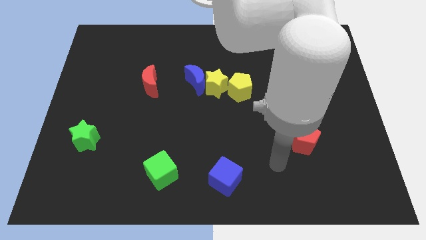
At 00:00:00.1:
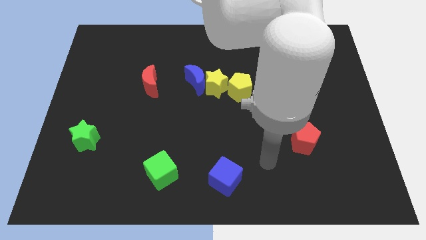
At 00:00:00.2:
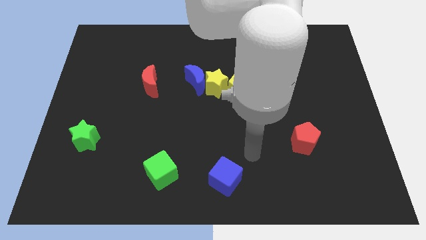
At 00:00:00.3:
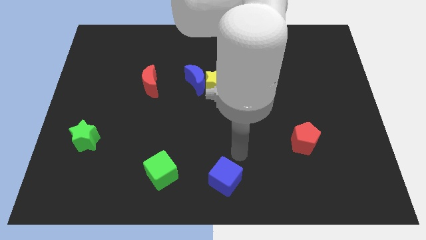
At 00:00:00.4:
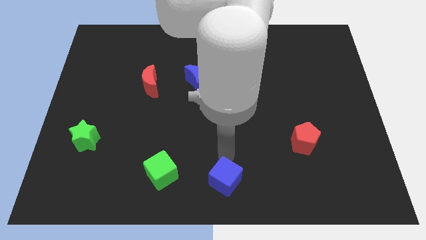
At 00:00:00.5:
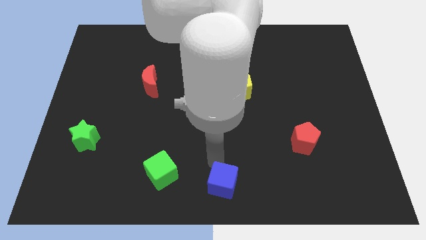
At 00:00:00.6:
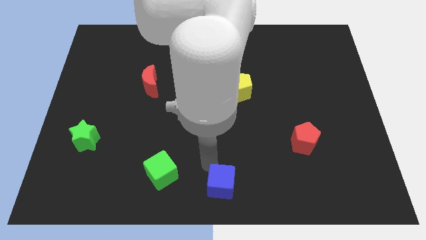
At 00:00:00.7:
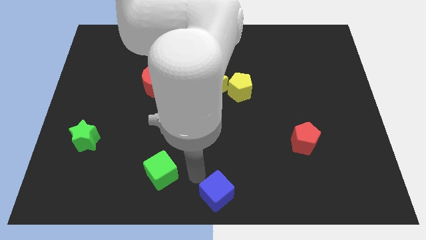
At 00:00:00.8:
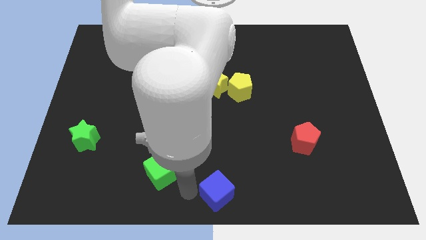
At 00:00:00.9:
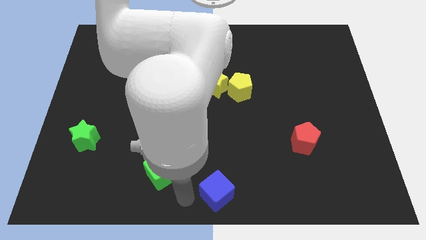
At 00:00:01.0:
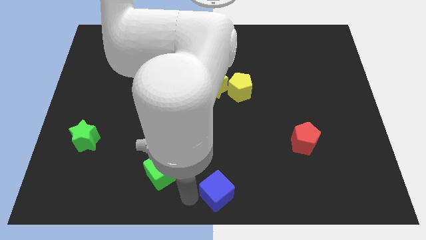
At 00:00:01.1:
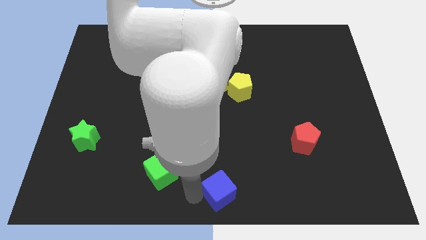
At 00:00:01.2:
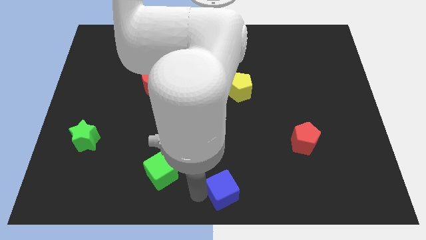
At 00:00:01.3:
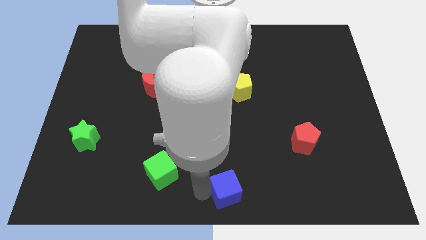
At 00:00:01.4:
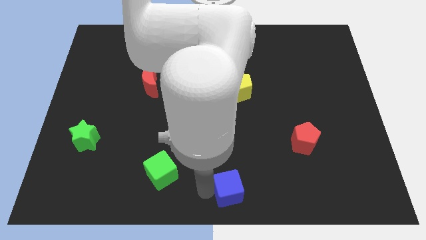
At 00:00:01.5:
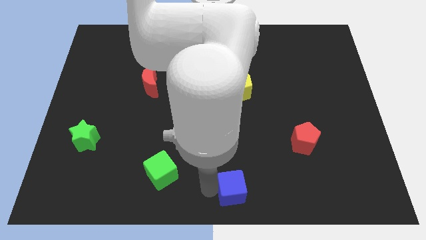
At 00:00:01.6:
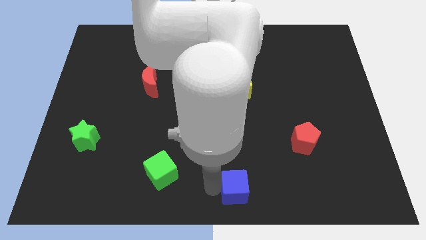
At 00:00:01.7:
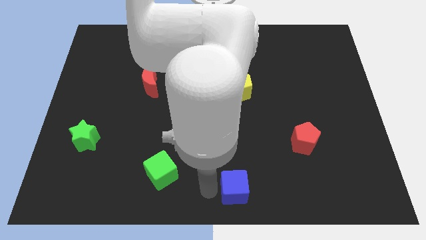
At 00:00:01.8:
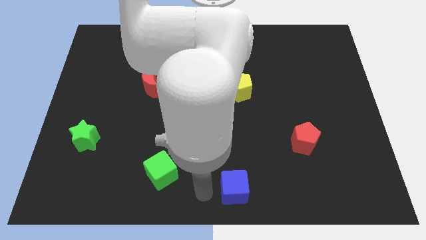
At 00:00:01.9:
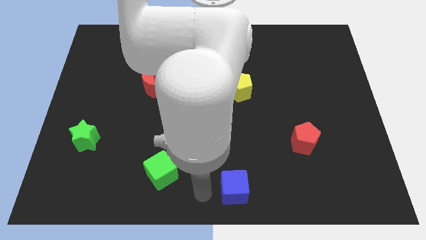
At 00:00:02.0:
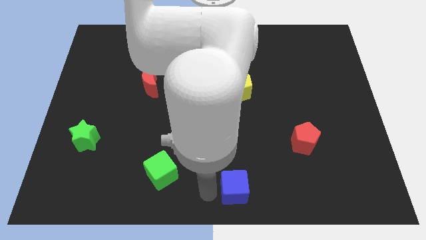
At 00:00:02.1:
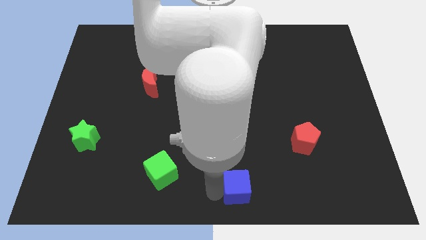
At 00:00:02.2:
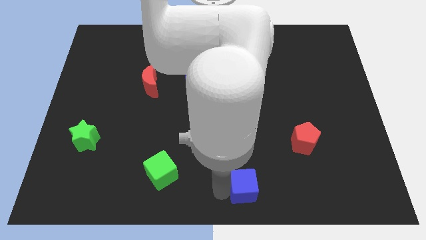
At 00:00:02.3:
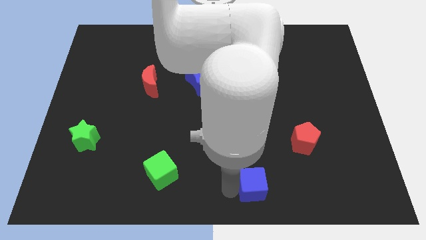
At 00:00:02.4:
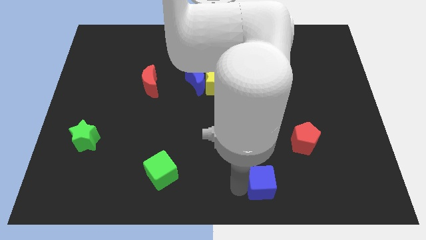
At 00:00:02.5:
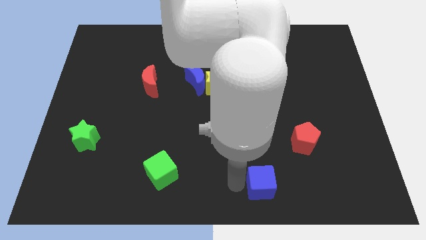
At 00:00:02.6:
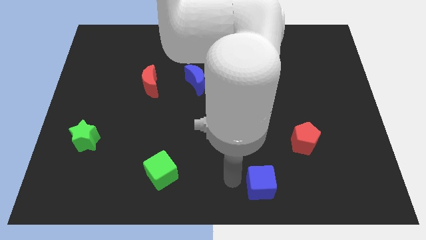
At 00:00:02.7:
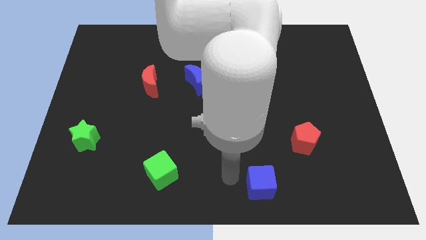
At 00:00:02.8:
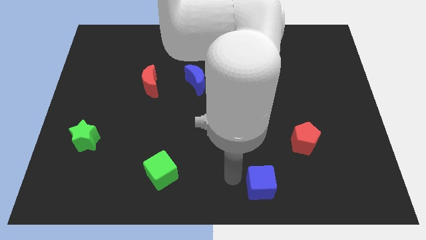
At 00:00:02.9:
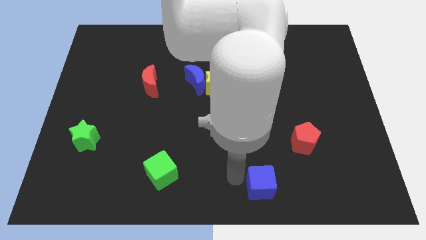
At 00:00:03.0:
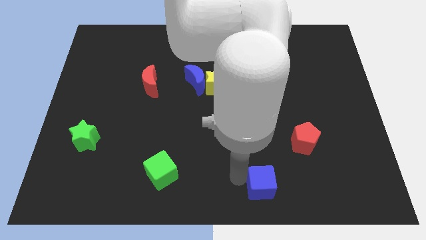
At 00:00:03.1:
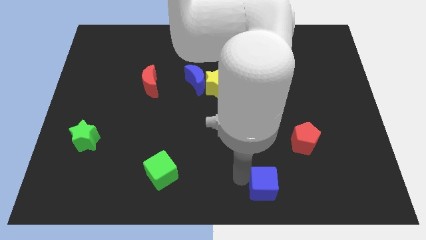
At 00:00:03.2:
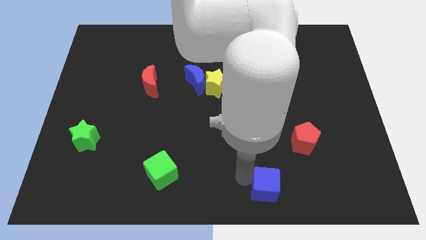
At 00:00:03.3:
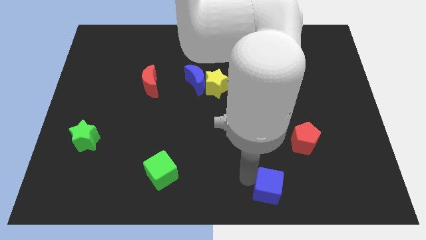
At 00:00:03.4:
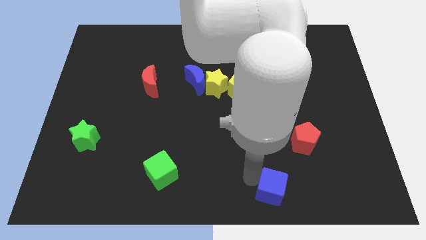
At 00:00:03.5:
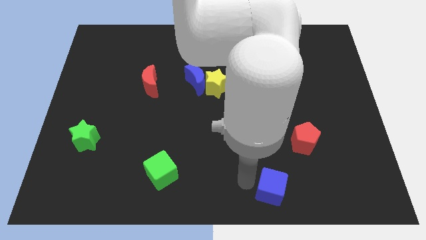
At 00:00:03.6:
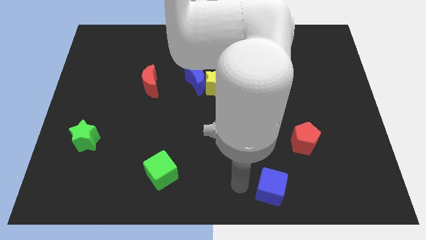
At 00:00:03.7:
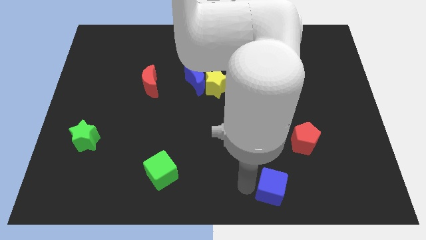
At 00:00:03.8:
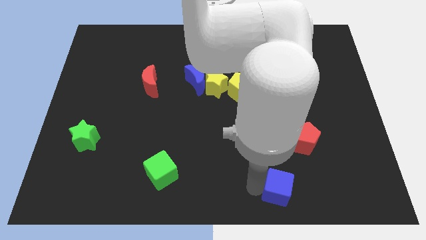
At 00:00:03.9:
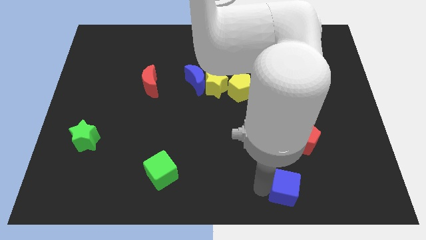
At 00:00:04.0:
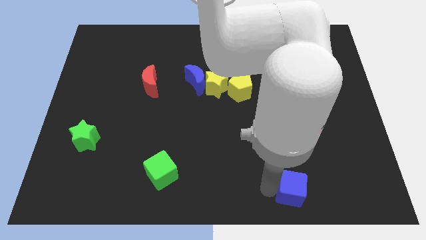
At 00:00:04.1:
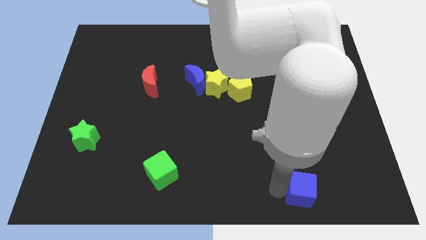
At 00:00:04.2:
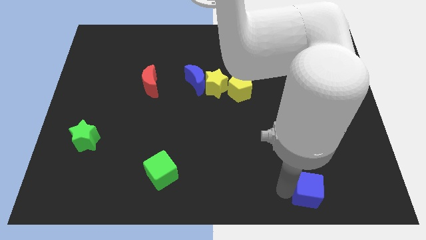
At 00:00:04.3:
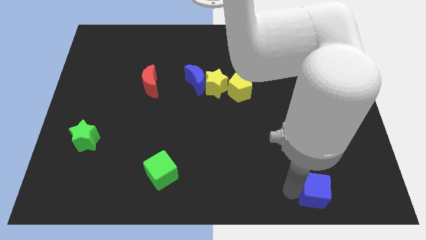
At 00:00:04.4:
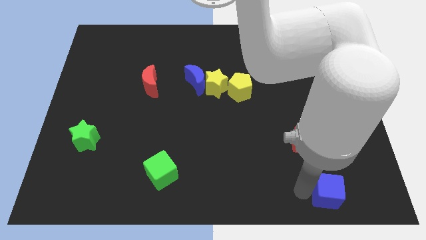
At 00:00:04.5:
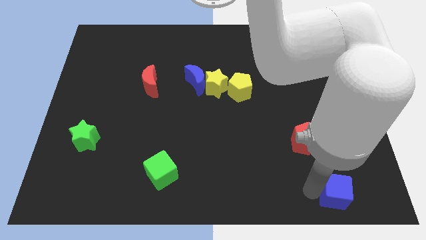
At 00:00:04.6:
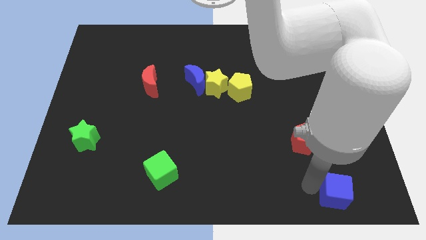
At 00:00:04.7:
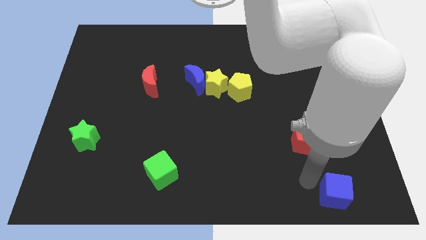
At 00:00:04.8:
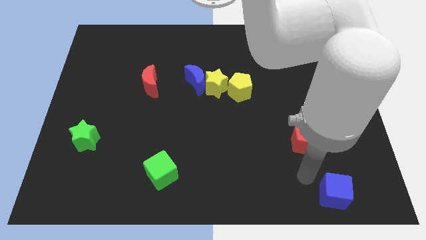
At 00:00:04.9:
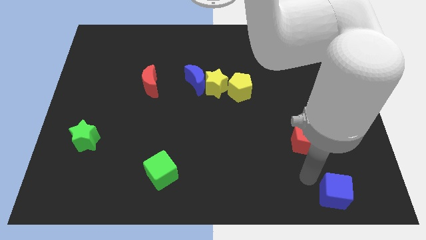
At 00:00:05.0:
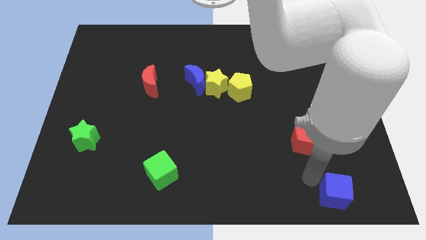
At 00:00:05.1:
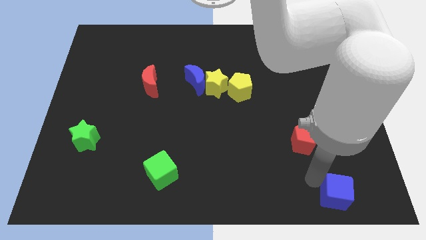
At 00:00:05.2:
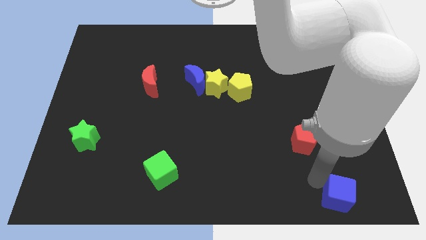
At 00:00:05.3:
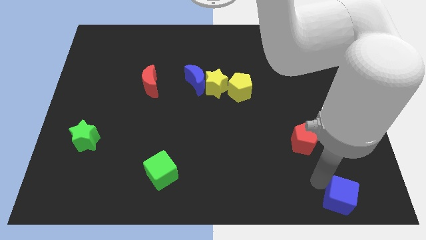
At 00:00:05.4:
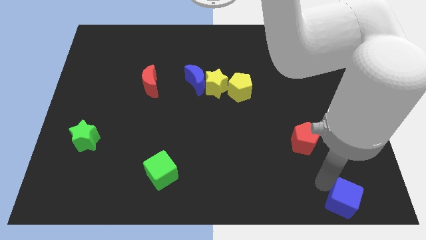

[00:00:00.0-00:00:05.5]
push the blue cube to the bottom right corner

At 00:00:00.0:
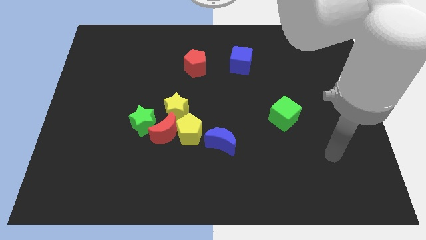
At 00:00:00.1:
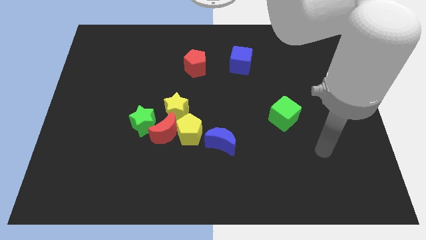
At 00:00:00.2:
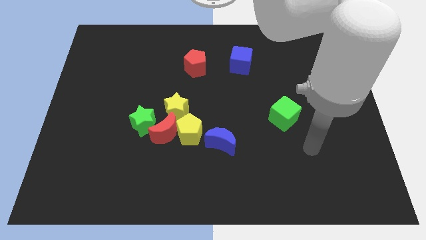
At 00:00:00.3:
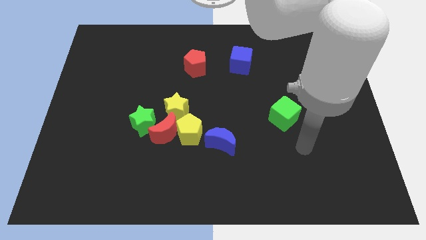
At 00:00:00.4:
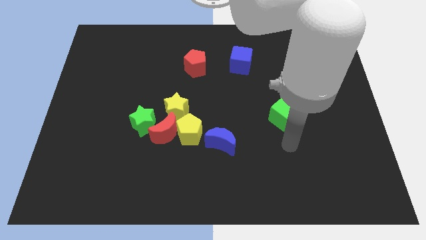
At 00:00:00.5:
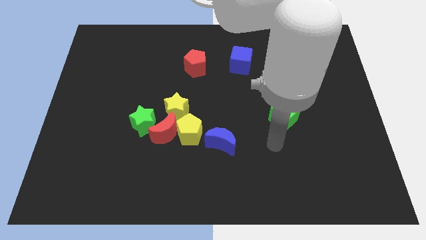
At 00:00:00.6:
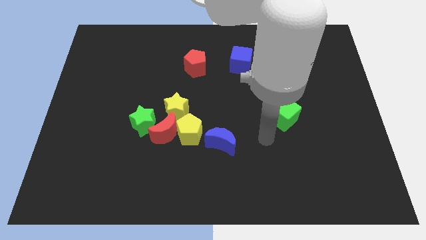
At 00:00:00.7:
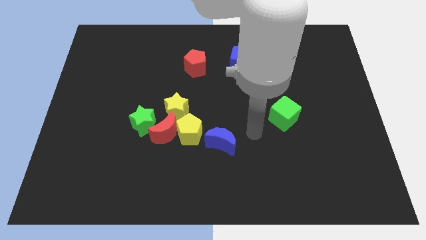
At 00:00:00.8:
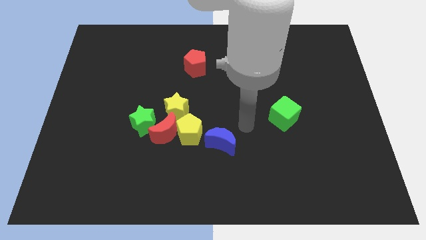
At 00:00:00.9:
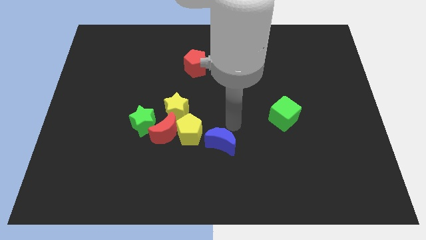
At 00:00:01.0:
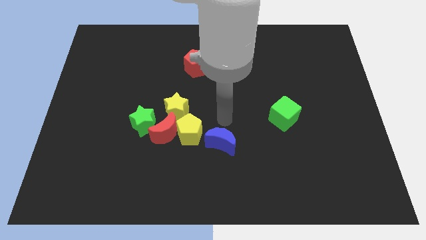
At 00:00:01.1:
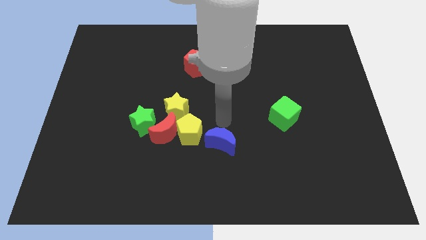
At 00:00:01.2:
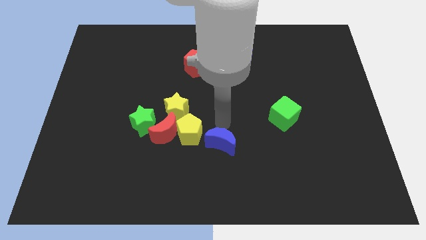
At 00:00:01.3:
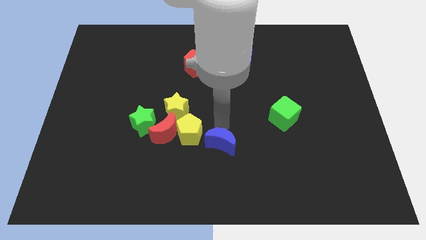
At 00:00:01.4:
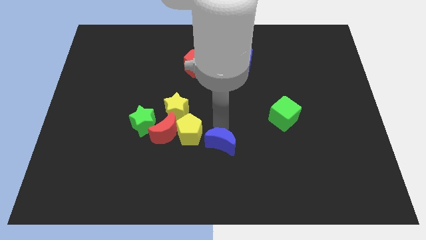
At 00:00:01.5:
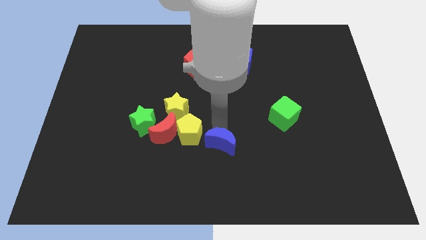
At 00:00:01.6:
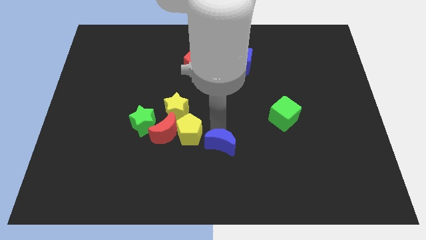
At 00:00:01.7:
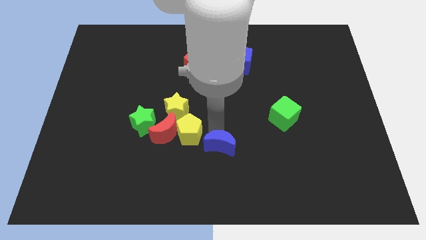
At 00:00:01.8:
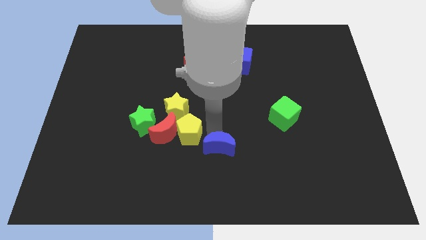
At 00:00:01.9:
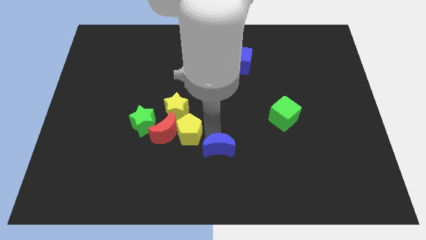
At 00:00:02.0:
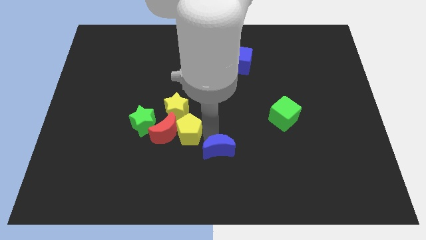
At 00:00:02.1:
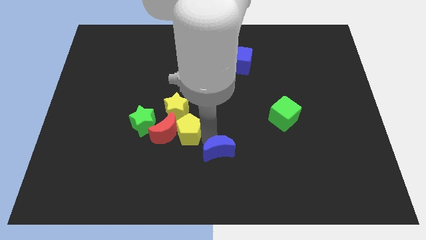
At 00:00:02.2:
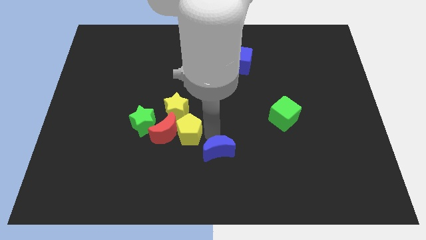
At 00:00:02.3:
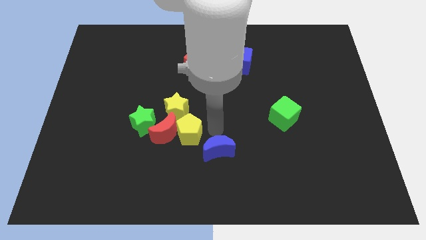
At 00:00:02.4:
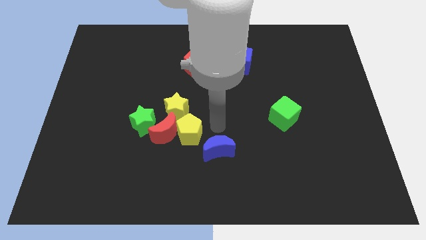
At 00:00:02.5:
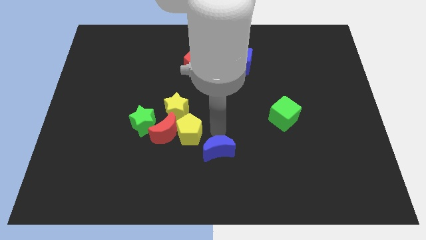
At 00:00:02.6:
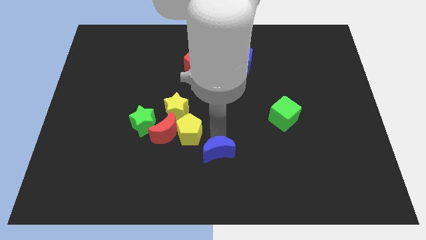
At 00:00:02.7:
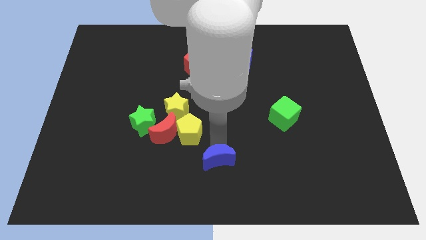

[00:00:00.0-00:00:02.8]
slide the blue moon to the bottom
